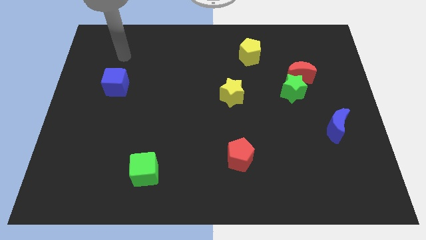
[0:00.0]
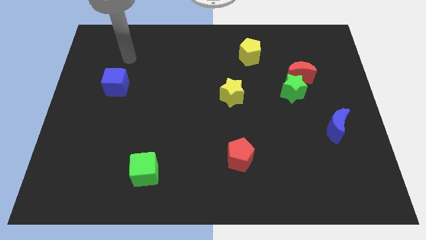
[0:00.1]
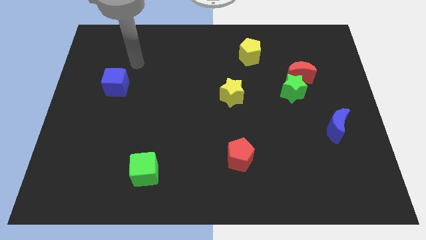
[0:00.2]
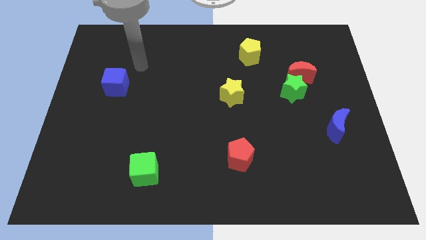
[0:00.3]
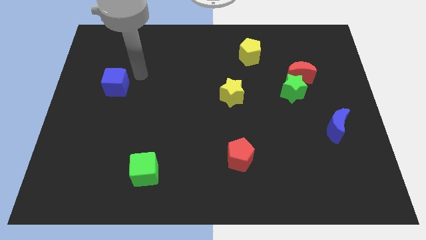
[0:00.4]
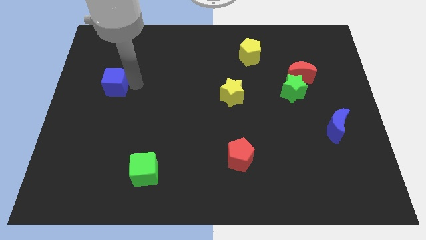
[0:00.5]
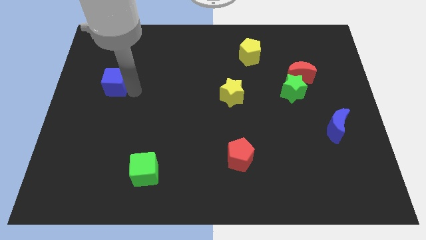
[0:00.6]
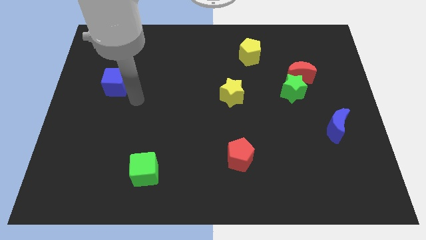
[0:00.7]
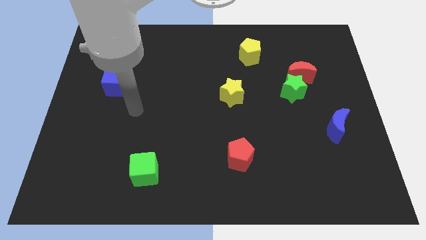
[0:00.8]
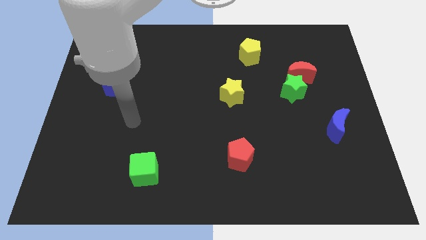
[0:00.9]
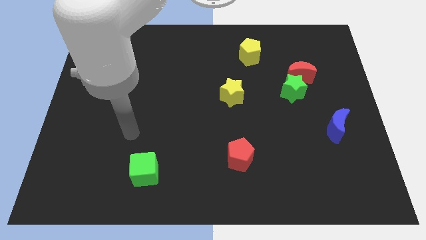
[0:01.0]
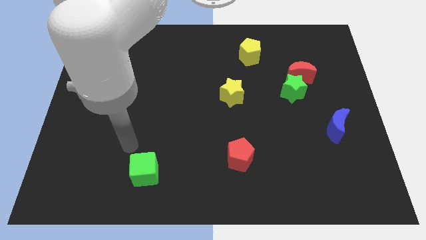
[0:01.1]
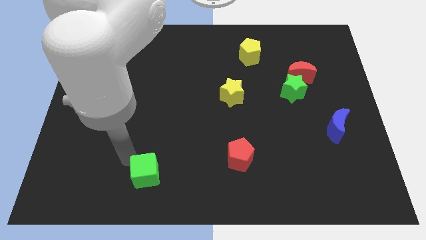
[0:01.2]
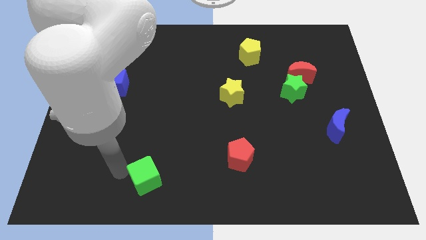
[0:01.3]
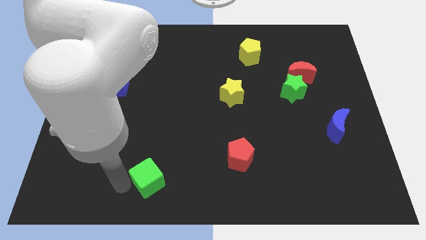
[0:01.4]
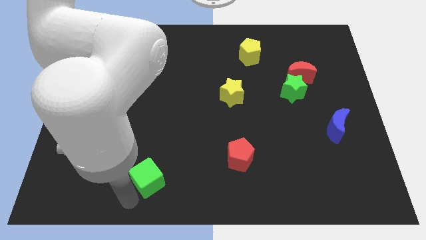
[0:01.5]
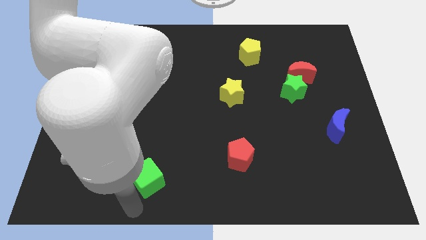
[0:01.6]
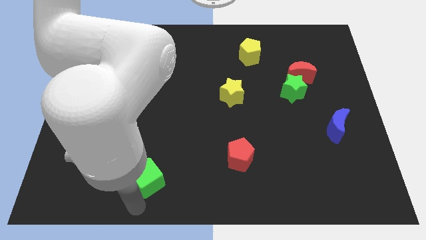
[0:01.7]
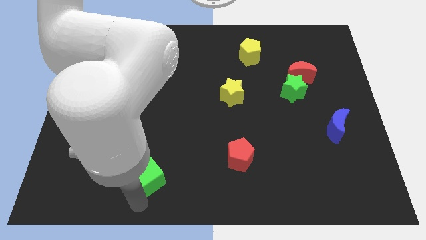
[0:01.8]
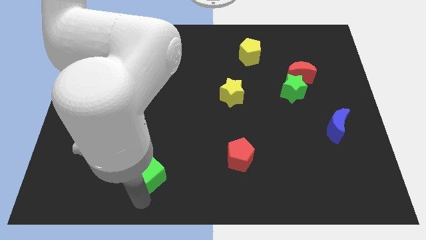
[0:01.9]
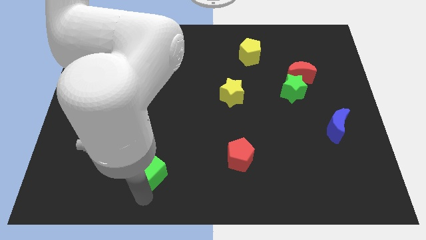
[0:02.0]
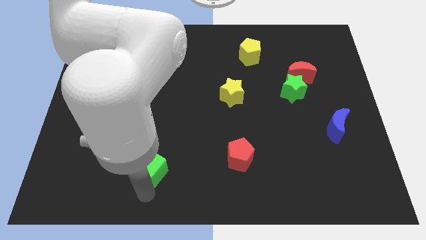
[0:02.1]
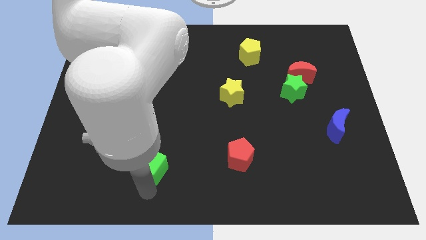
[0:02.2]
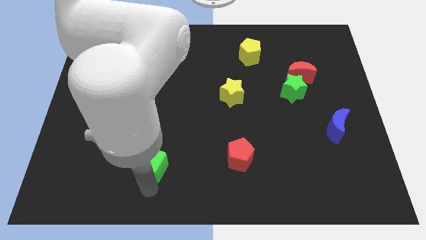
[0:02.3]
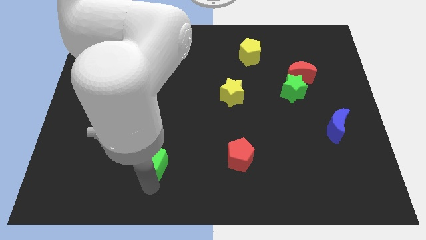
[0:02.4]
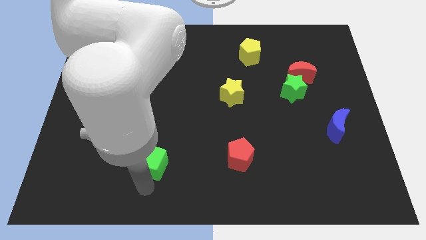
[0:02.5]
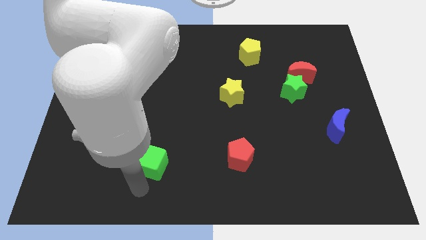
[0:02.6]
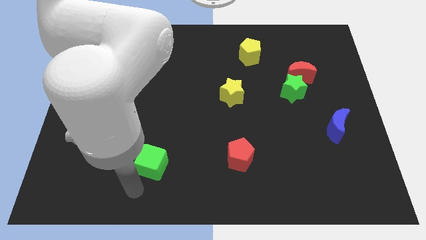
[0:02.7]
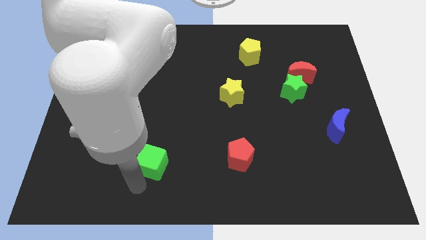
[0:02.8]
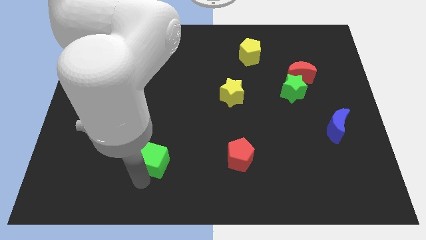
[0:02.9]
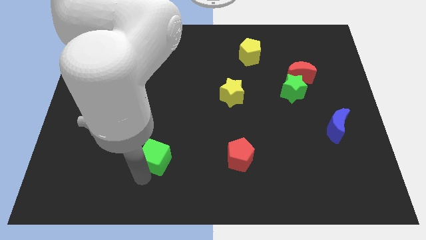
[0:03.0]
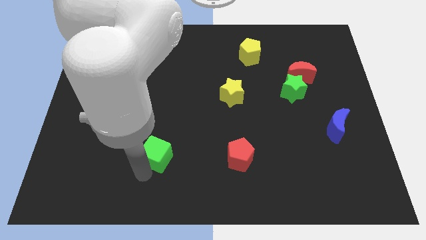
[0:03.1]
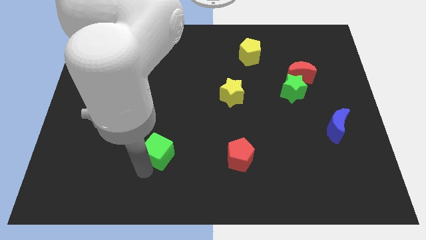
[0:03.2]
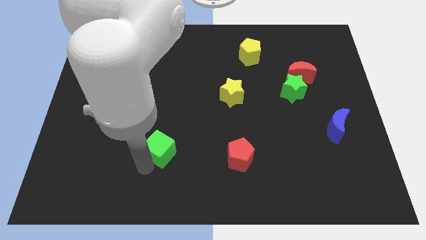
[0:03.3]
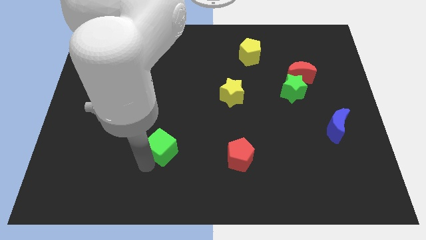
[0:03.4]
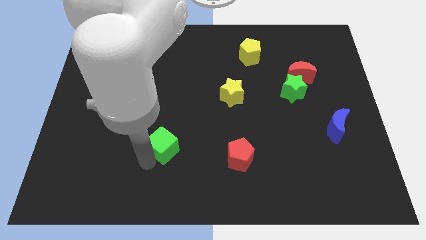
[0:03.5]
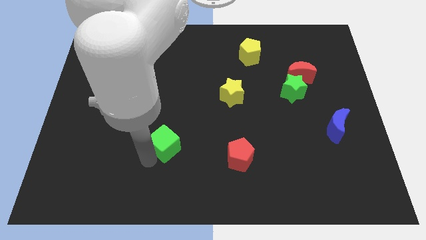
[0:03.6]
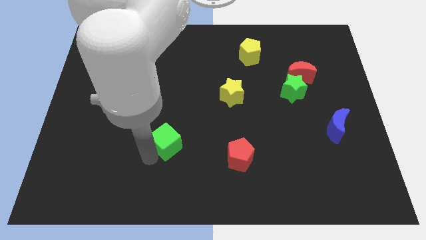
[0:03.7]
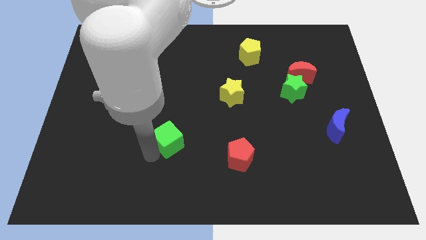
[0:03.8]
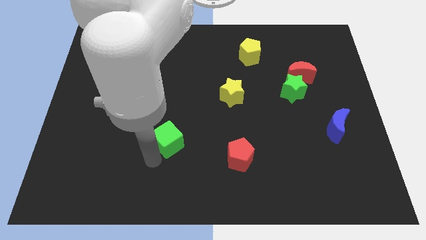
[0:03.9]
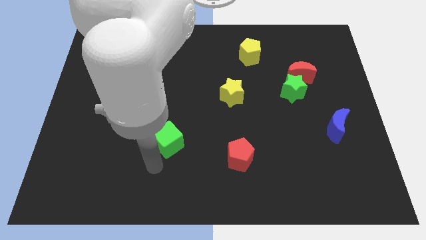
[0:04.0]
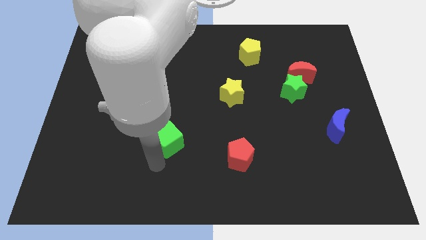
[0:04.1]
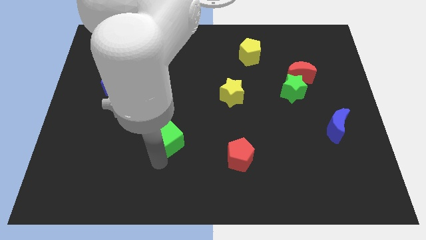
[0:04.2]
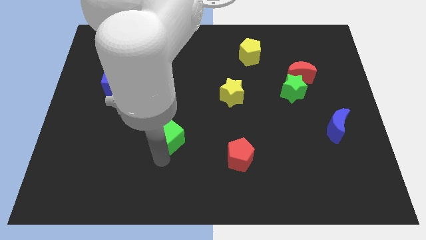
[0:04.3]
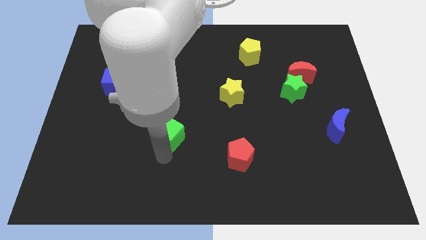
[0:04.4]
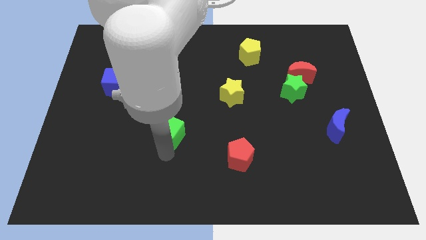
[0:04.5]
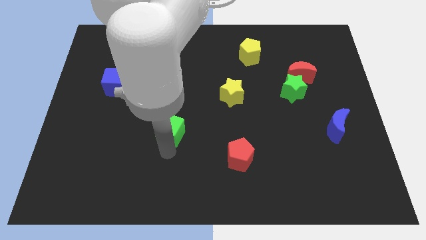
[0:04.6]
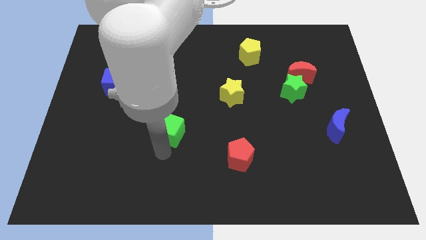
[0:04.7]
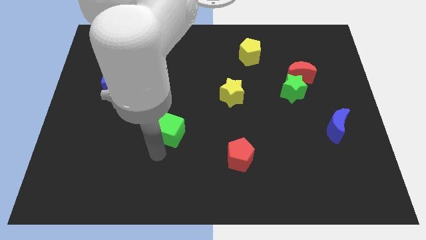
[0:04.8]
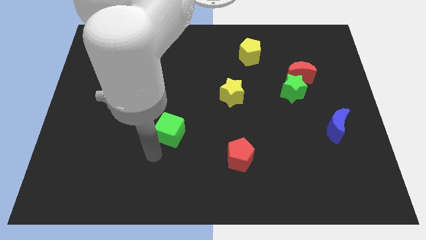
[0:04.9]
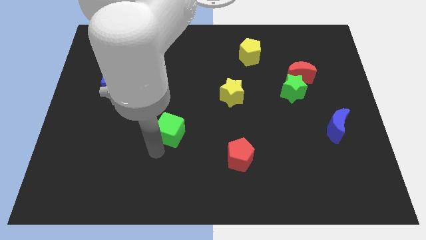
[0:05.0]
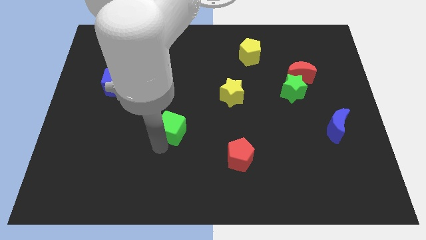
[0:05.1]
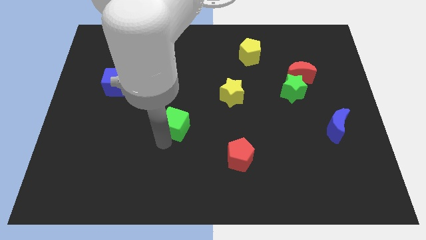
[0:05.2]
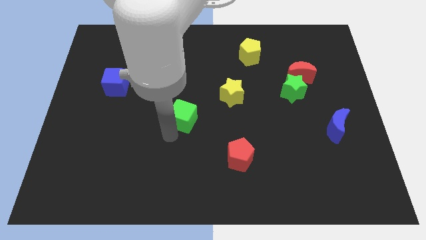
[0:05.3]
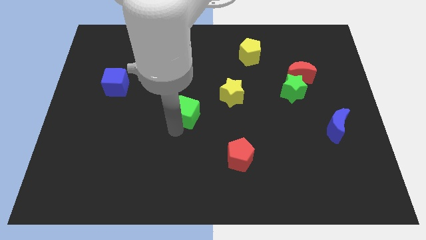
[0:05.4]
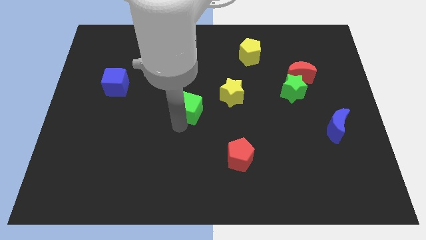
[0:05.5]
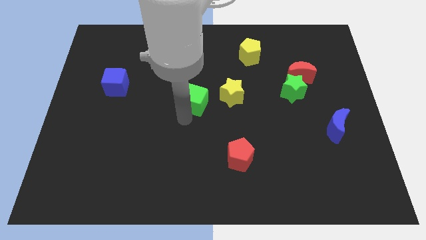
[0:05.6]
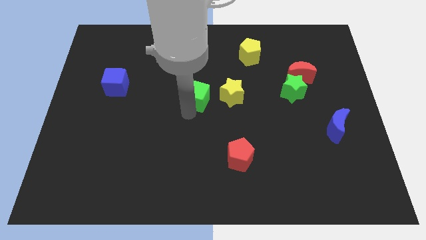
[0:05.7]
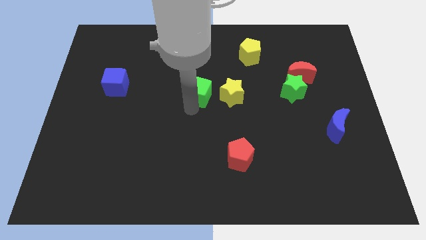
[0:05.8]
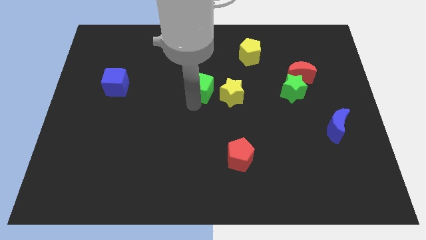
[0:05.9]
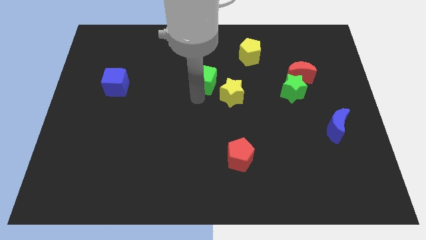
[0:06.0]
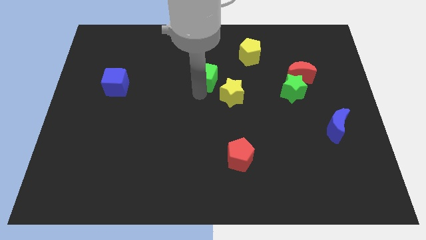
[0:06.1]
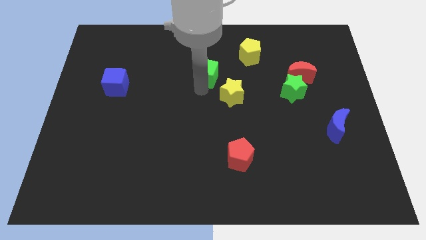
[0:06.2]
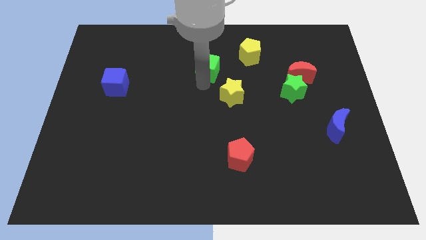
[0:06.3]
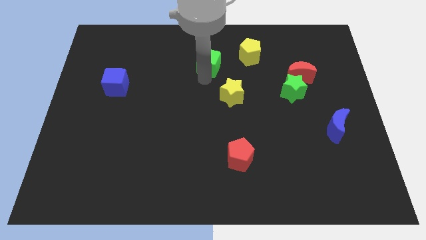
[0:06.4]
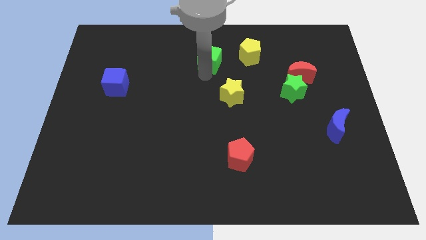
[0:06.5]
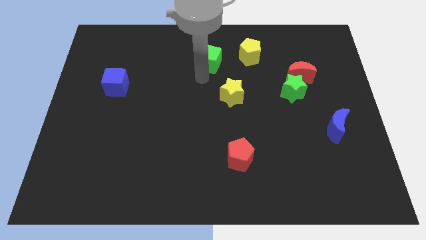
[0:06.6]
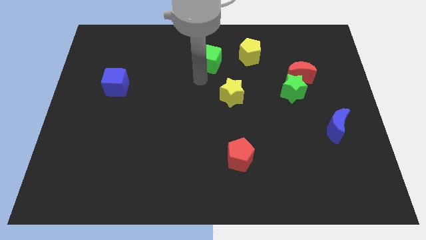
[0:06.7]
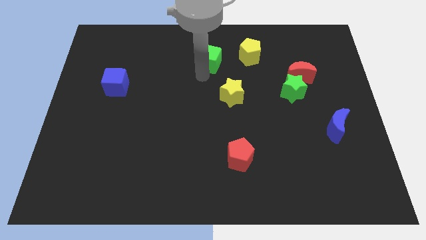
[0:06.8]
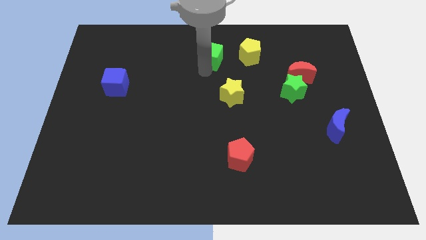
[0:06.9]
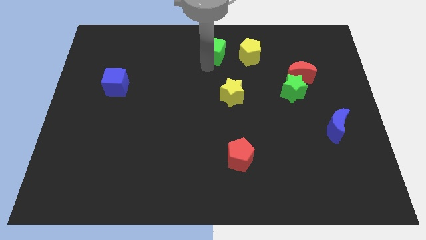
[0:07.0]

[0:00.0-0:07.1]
put the green cube to the top
